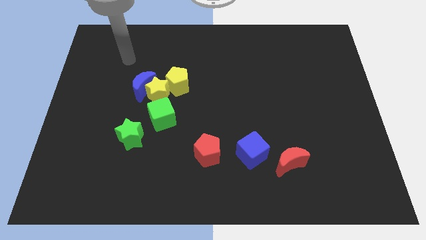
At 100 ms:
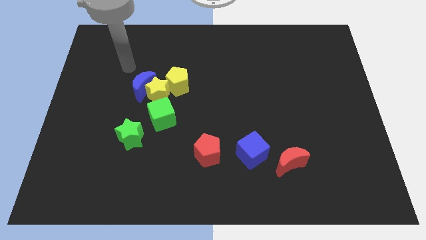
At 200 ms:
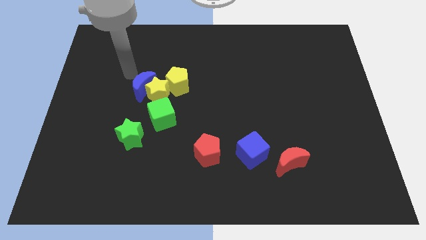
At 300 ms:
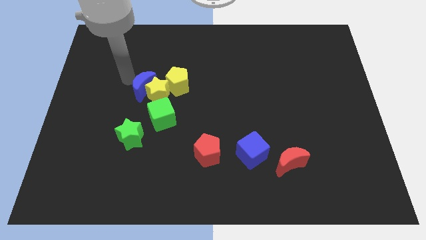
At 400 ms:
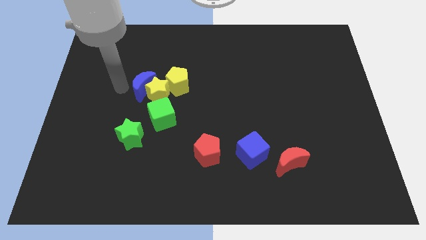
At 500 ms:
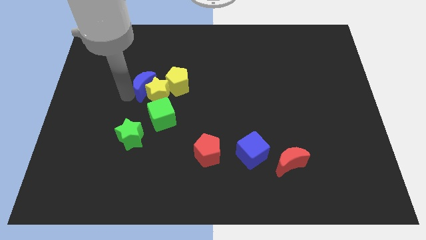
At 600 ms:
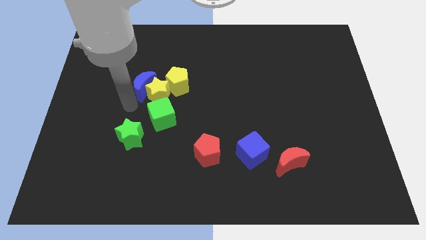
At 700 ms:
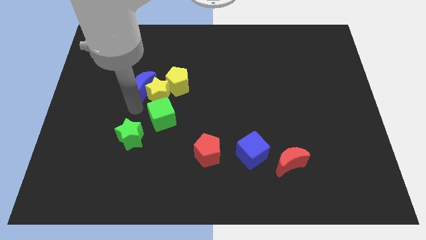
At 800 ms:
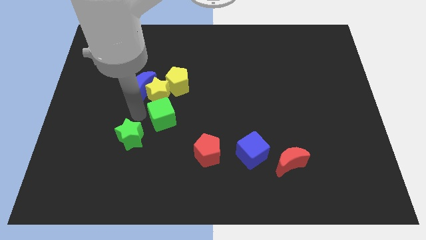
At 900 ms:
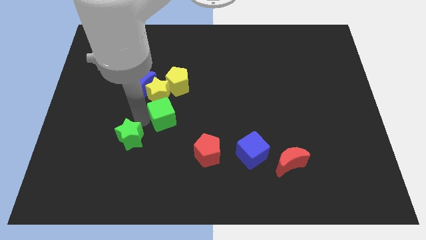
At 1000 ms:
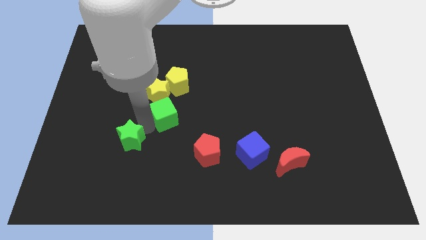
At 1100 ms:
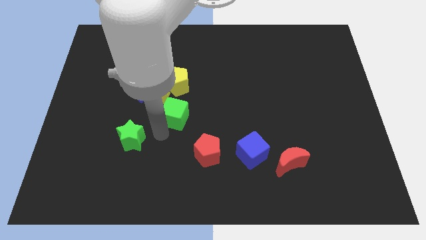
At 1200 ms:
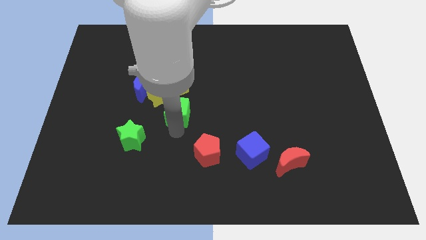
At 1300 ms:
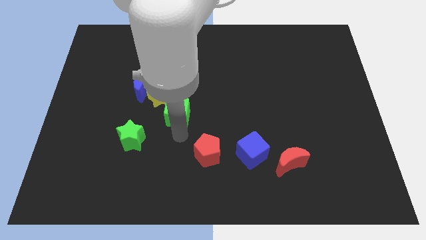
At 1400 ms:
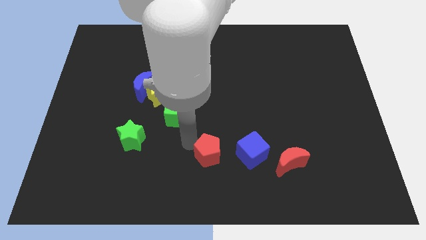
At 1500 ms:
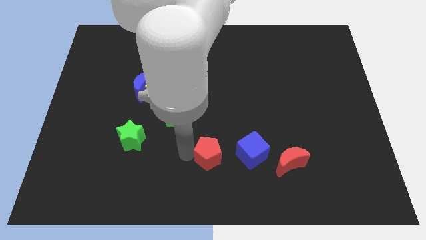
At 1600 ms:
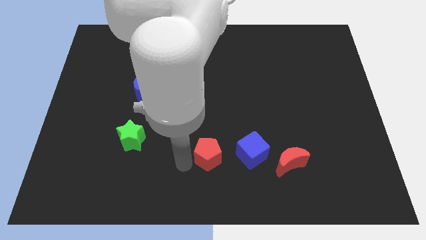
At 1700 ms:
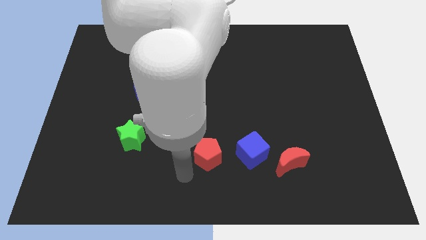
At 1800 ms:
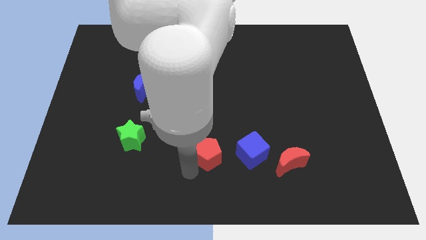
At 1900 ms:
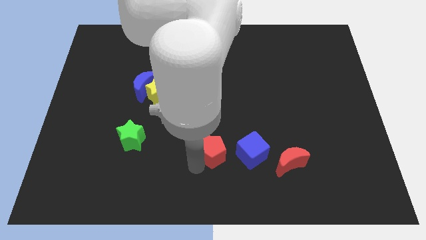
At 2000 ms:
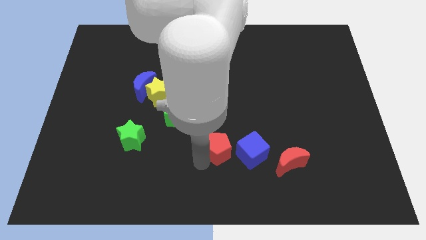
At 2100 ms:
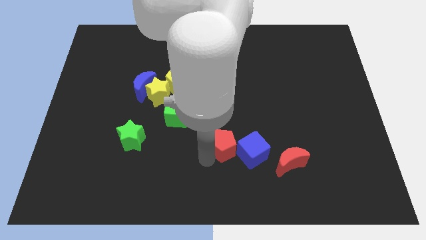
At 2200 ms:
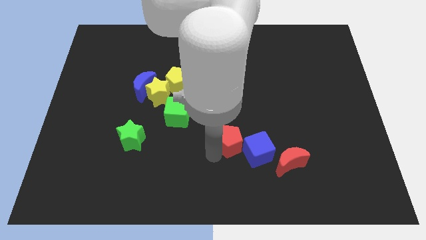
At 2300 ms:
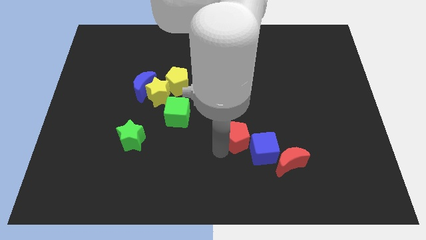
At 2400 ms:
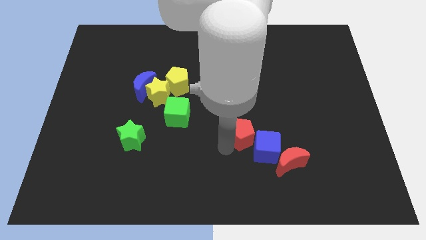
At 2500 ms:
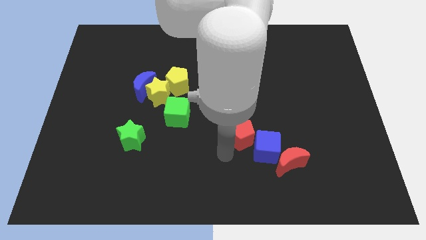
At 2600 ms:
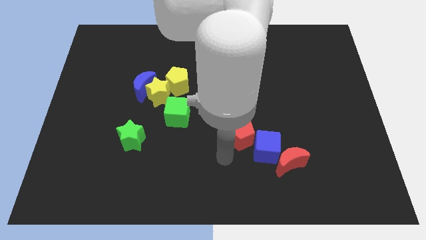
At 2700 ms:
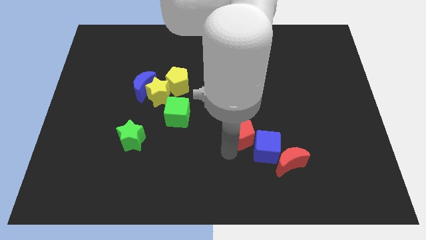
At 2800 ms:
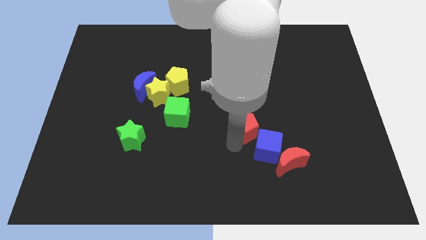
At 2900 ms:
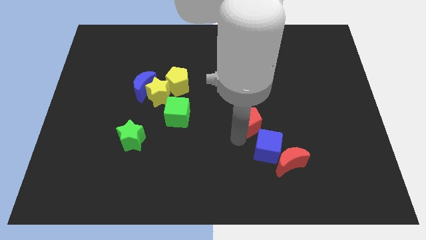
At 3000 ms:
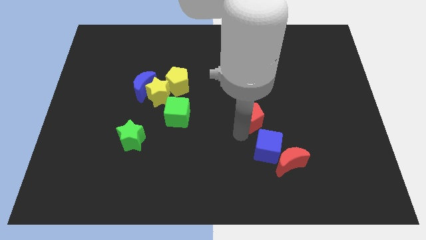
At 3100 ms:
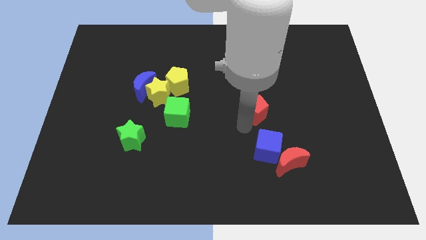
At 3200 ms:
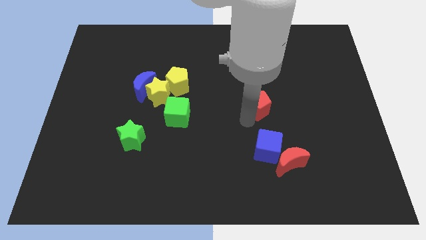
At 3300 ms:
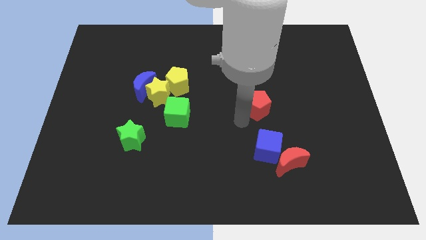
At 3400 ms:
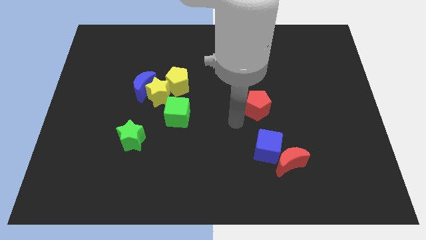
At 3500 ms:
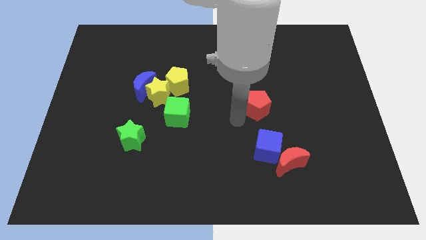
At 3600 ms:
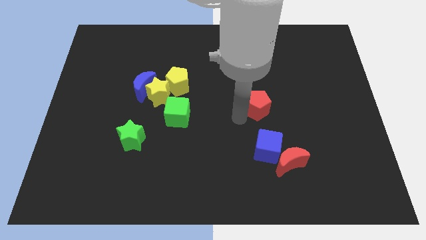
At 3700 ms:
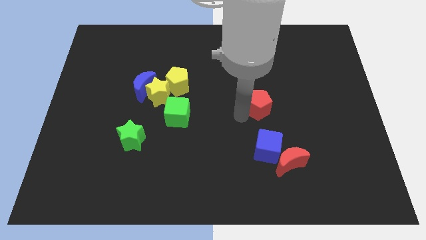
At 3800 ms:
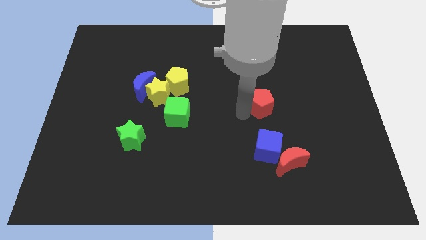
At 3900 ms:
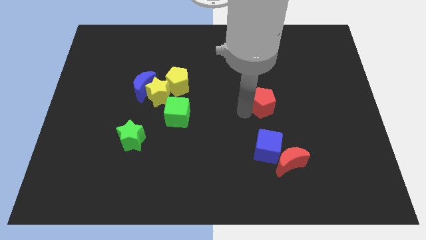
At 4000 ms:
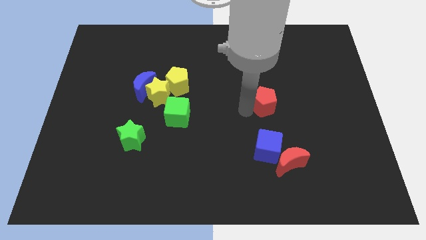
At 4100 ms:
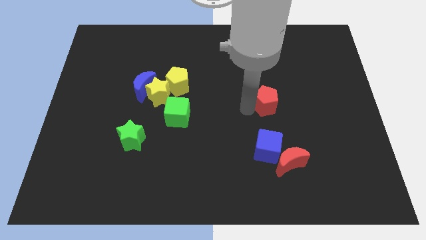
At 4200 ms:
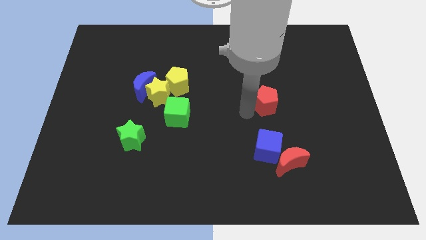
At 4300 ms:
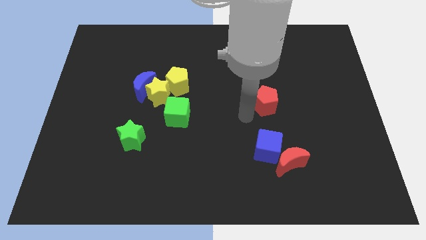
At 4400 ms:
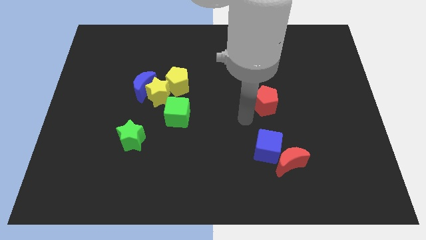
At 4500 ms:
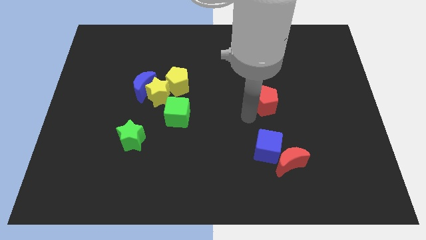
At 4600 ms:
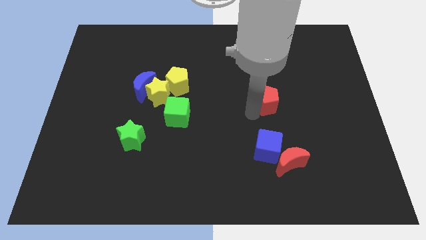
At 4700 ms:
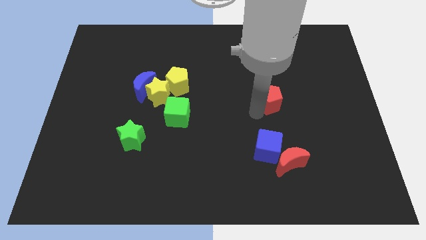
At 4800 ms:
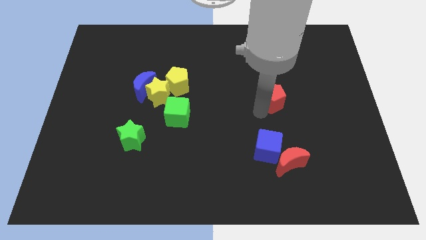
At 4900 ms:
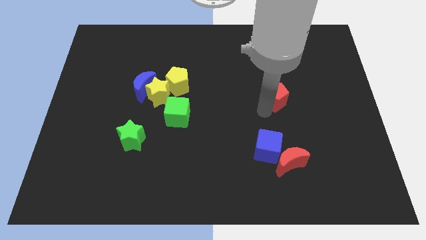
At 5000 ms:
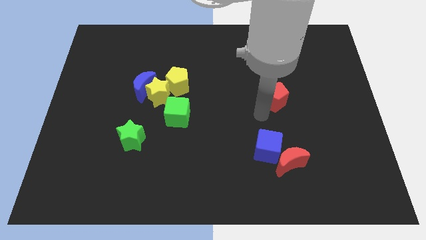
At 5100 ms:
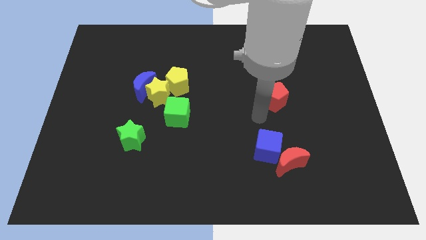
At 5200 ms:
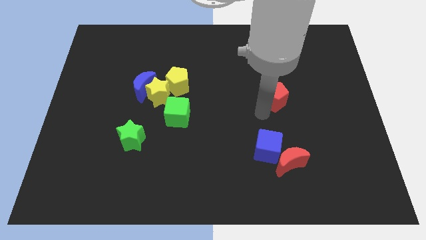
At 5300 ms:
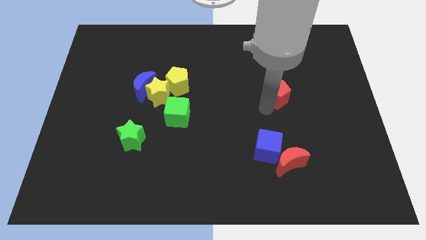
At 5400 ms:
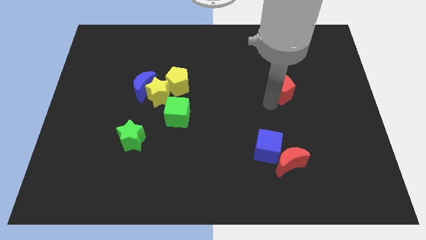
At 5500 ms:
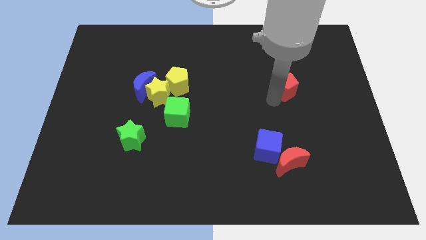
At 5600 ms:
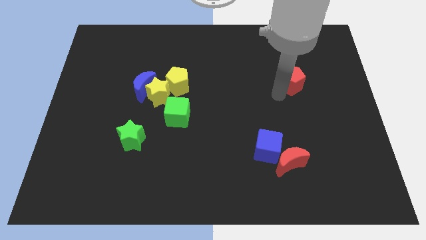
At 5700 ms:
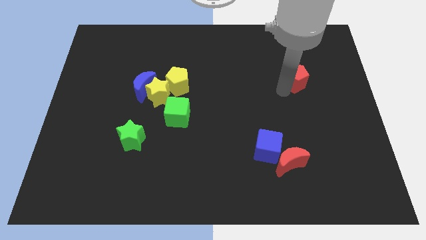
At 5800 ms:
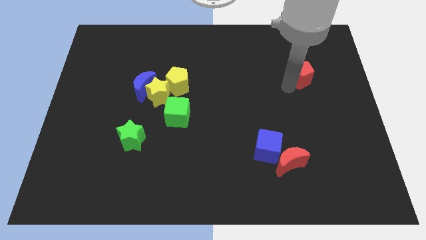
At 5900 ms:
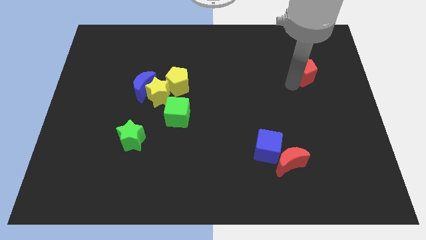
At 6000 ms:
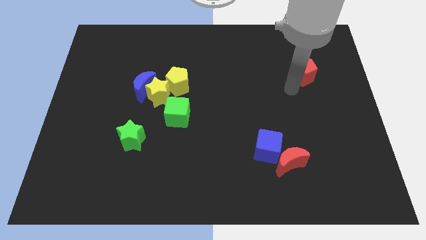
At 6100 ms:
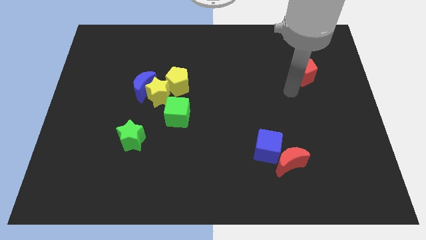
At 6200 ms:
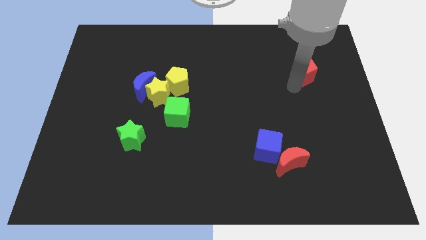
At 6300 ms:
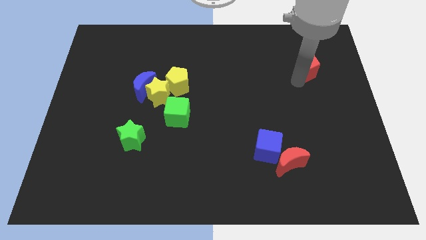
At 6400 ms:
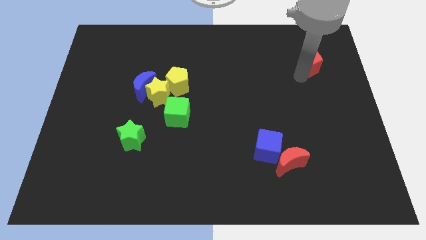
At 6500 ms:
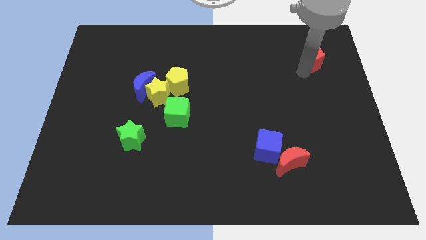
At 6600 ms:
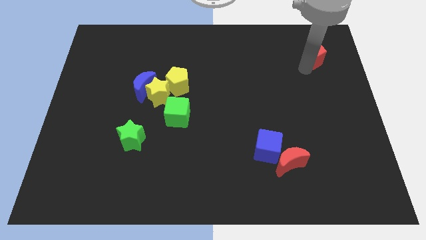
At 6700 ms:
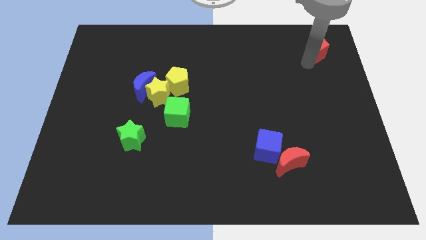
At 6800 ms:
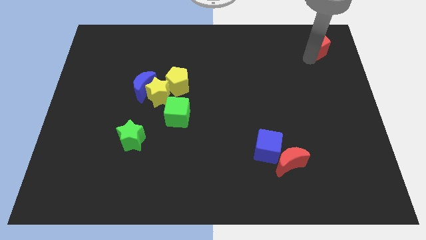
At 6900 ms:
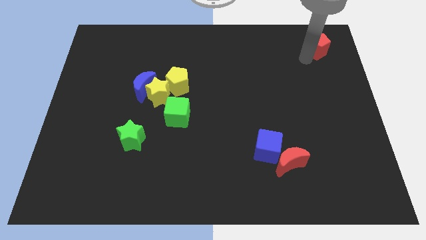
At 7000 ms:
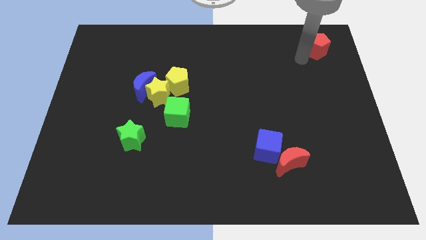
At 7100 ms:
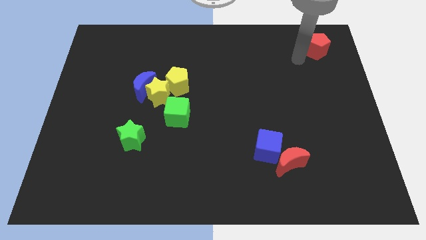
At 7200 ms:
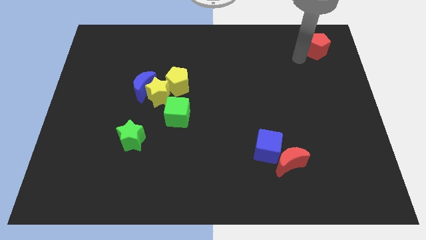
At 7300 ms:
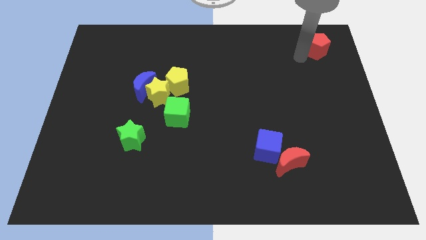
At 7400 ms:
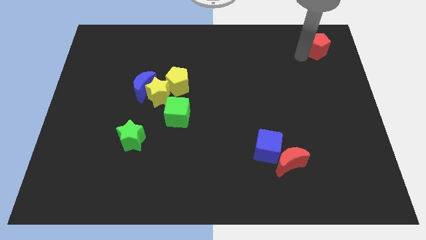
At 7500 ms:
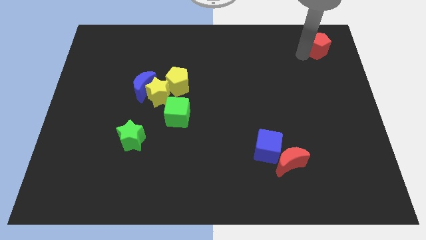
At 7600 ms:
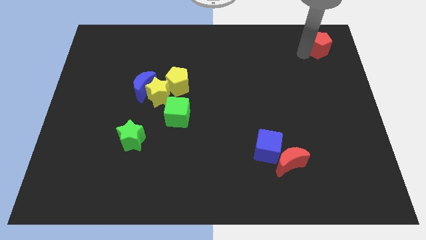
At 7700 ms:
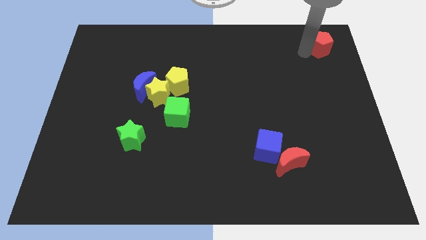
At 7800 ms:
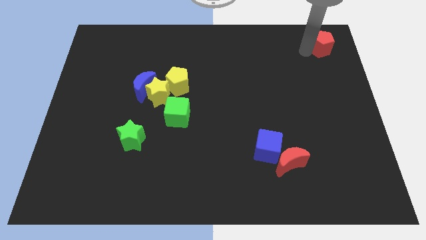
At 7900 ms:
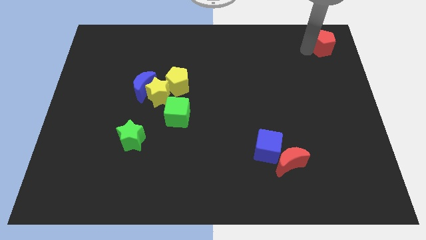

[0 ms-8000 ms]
move the red pentagon to the upper right corner
